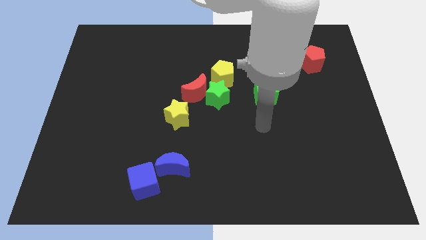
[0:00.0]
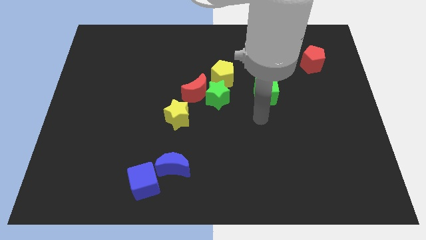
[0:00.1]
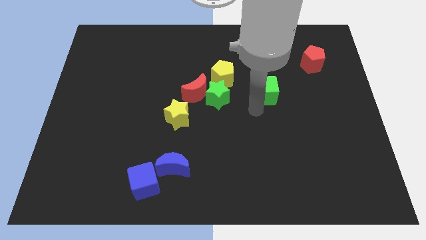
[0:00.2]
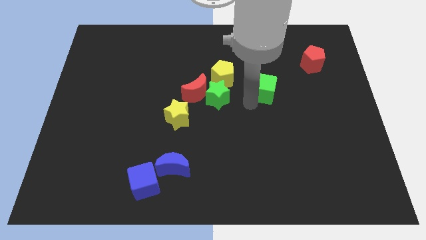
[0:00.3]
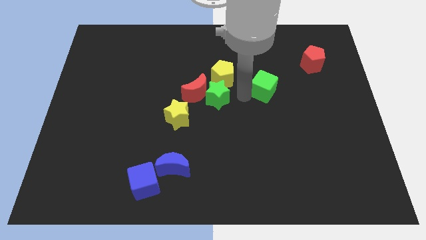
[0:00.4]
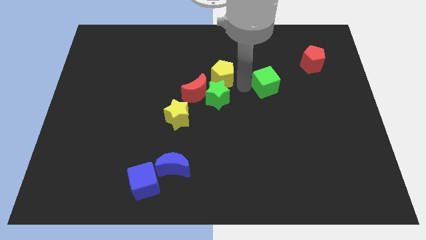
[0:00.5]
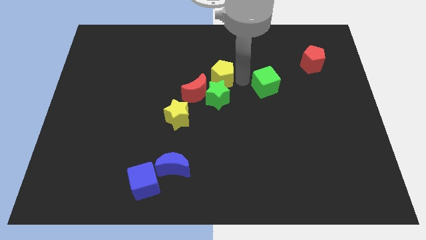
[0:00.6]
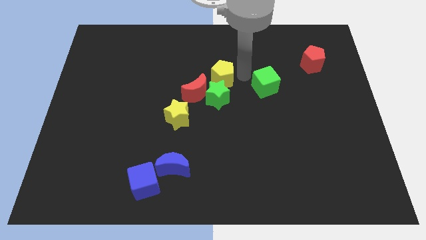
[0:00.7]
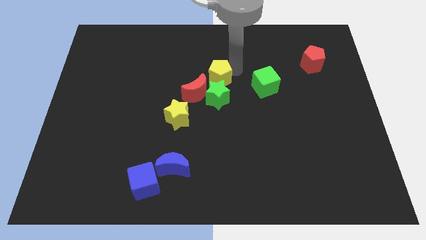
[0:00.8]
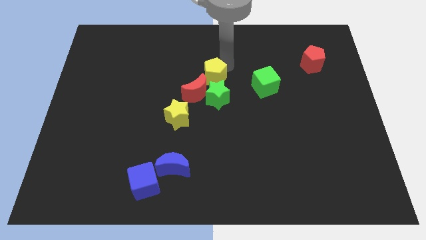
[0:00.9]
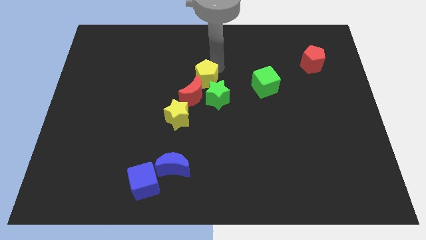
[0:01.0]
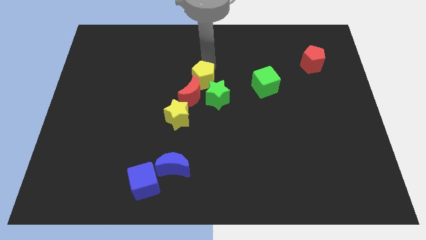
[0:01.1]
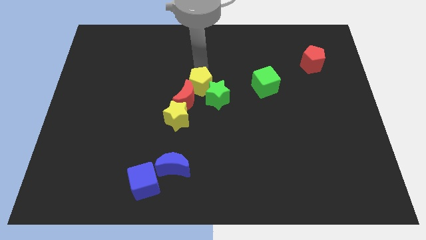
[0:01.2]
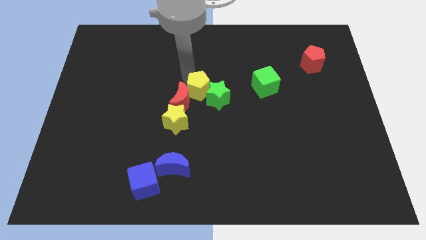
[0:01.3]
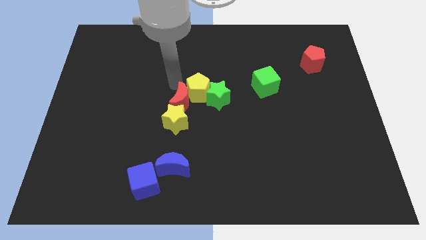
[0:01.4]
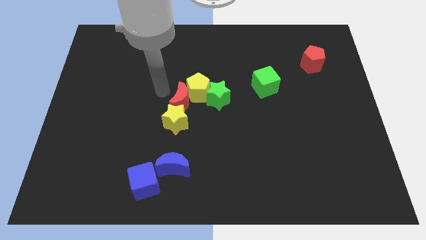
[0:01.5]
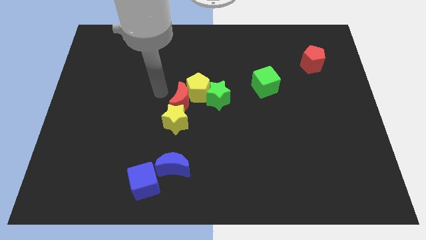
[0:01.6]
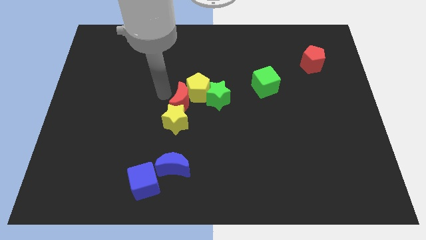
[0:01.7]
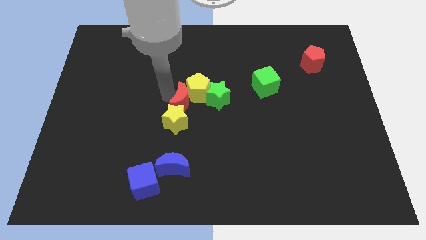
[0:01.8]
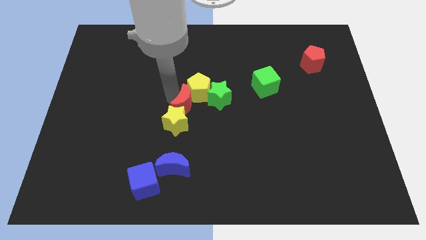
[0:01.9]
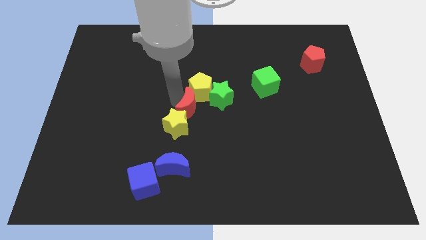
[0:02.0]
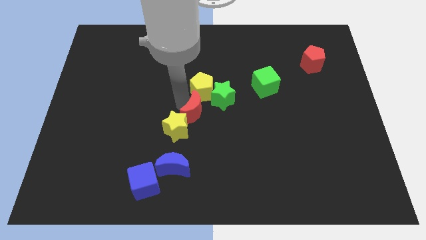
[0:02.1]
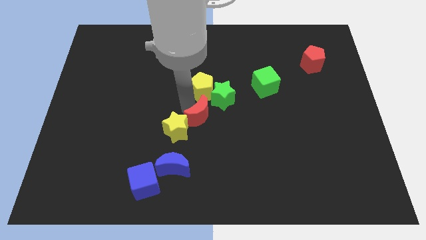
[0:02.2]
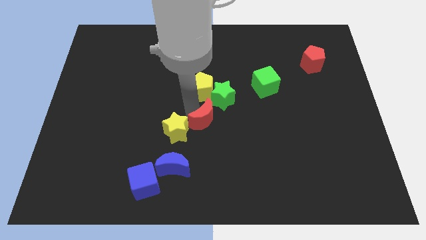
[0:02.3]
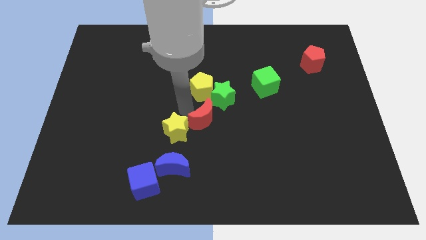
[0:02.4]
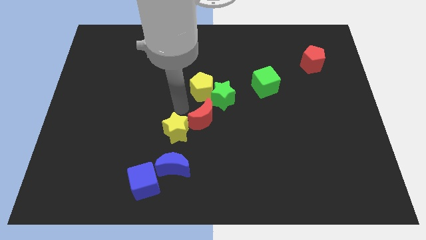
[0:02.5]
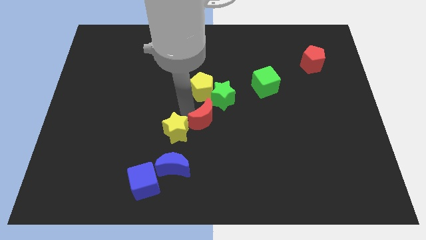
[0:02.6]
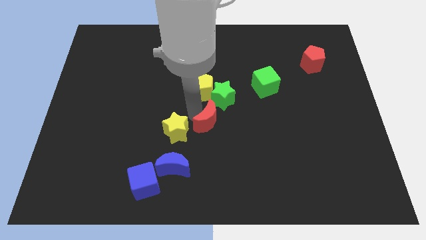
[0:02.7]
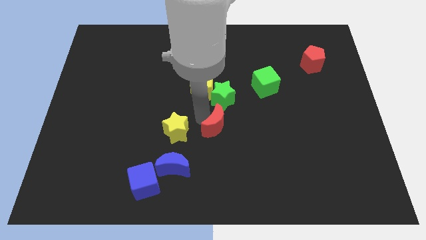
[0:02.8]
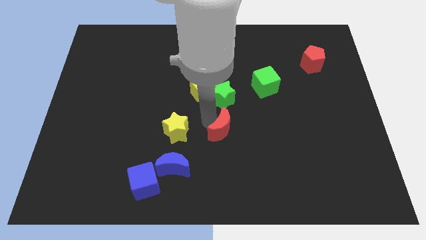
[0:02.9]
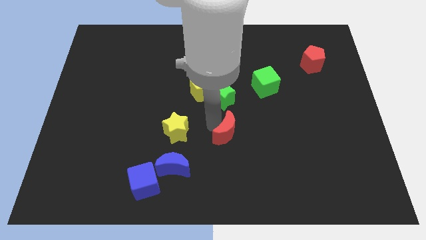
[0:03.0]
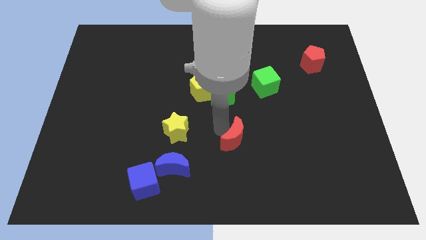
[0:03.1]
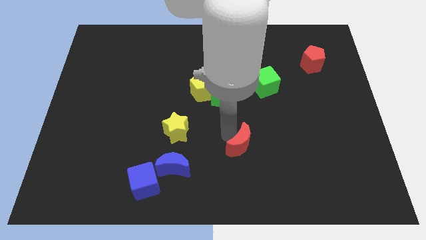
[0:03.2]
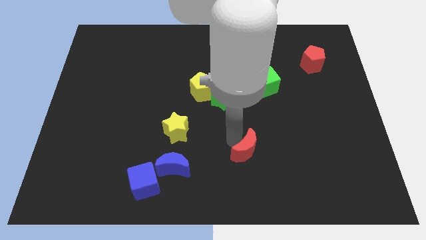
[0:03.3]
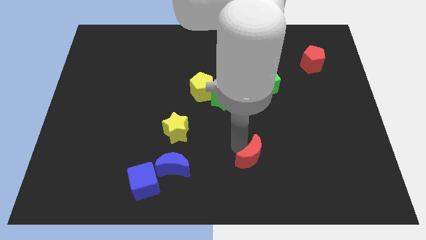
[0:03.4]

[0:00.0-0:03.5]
move the red moon down and right diagonally

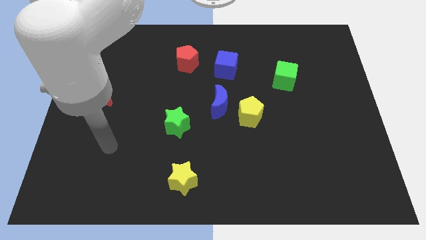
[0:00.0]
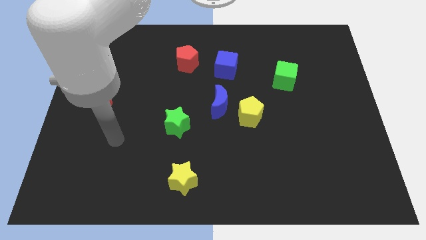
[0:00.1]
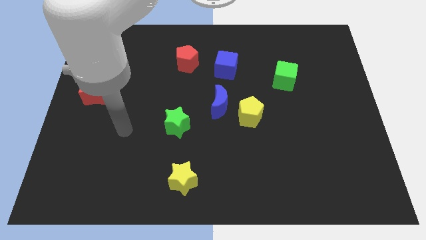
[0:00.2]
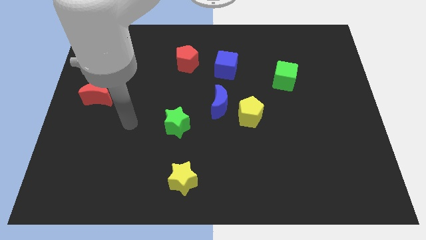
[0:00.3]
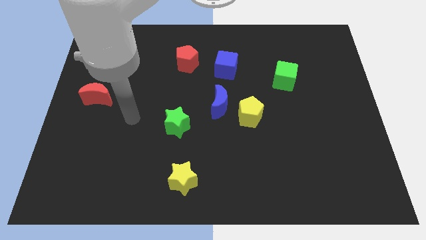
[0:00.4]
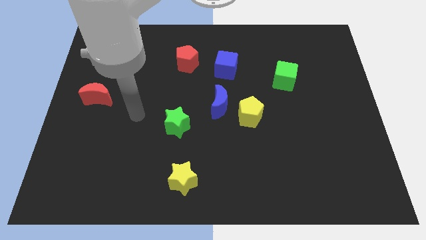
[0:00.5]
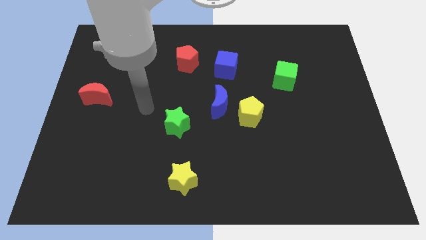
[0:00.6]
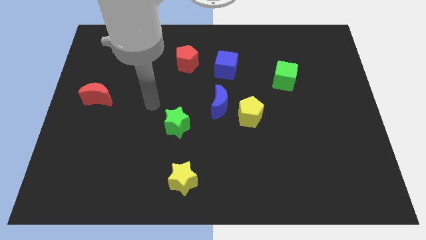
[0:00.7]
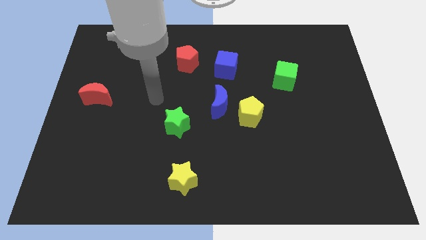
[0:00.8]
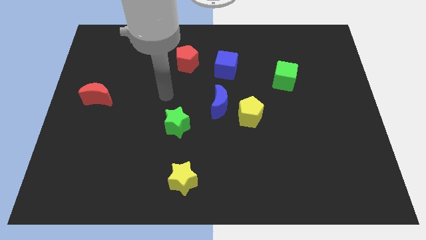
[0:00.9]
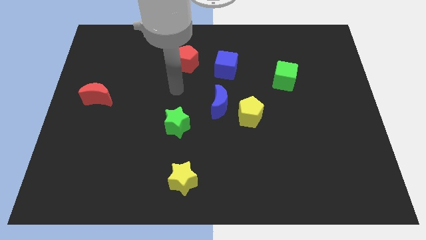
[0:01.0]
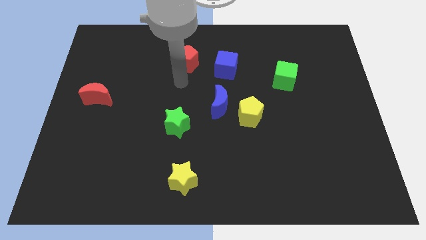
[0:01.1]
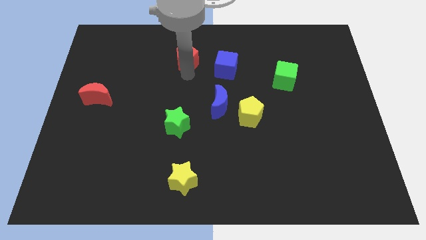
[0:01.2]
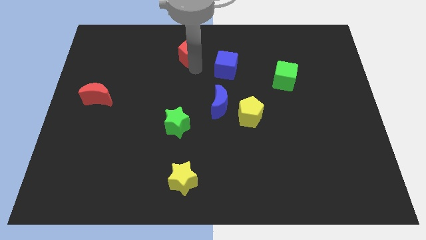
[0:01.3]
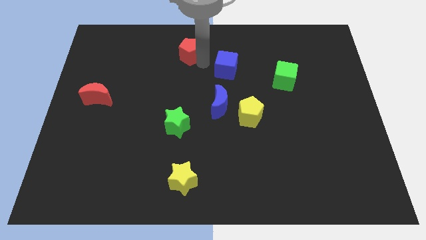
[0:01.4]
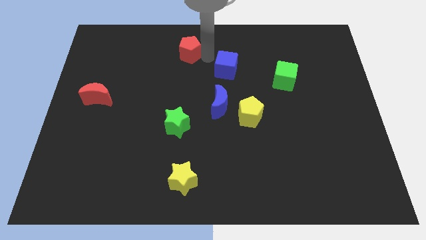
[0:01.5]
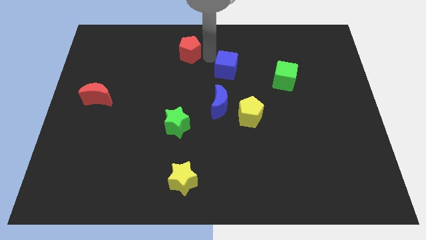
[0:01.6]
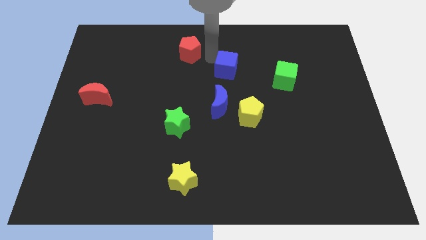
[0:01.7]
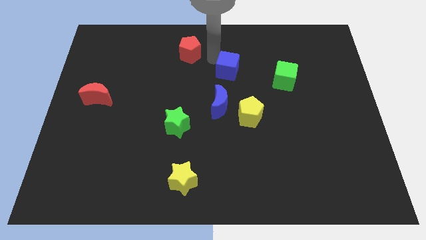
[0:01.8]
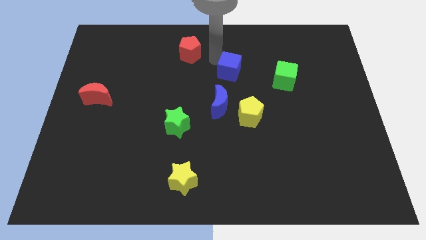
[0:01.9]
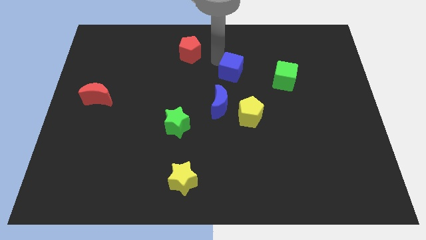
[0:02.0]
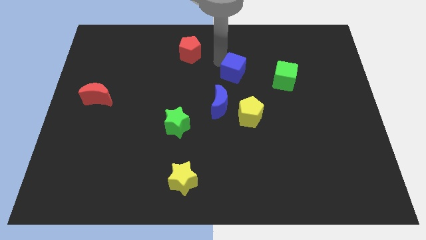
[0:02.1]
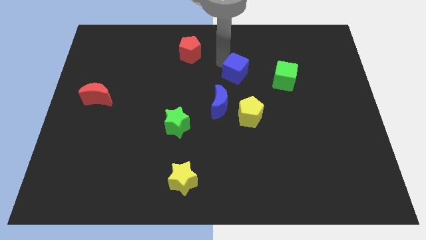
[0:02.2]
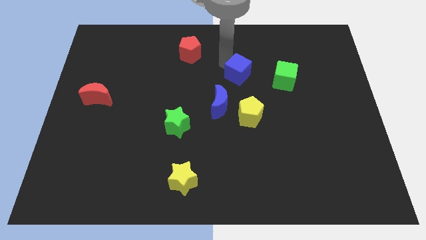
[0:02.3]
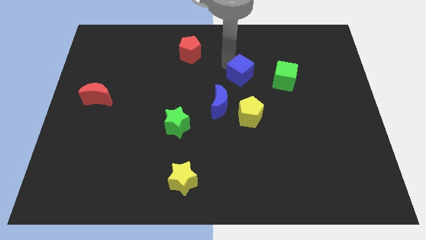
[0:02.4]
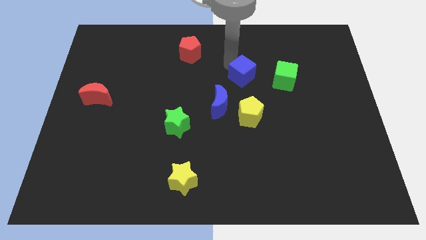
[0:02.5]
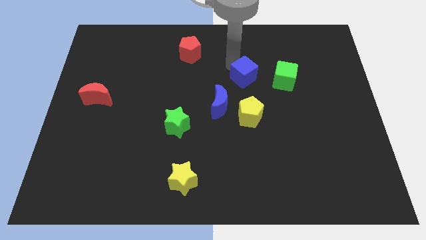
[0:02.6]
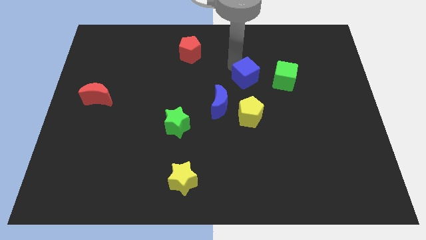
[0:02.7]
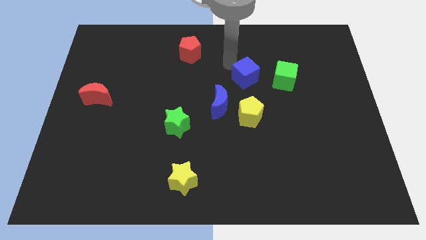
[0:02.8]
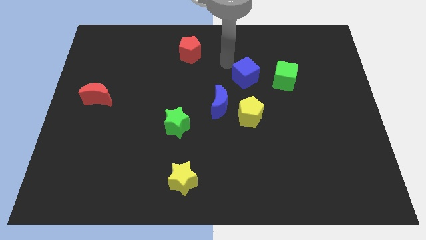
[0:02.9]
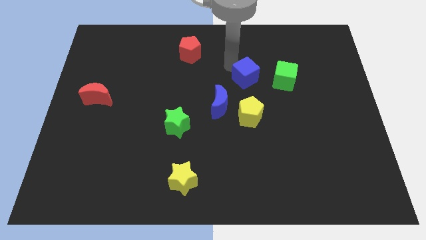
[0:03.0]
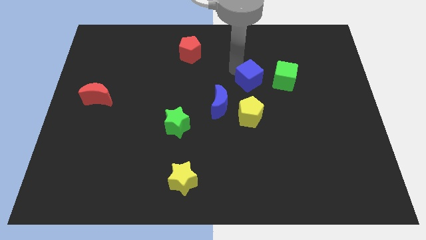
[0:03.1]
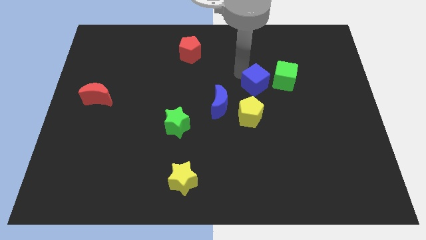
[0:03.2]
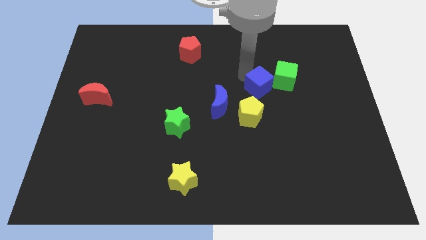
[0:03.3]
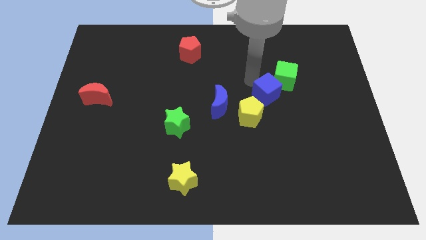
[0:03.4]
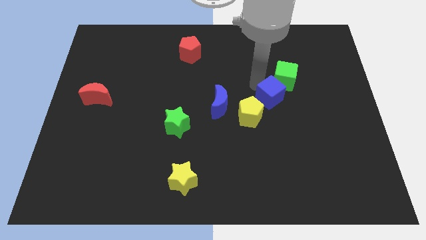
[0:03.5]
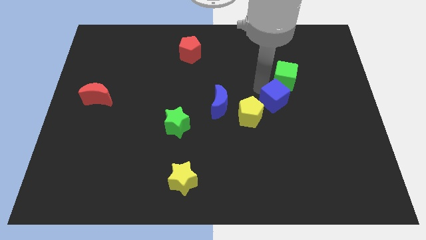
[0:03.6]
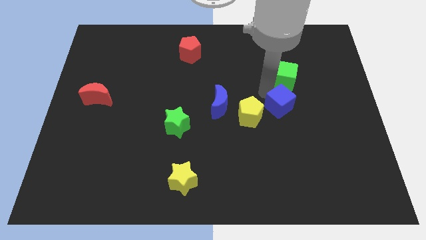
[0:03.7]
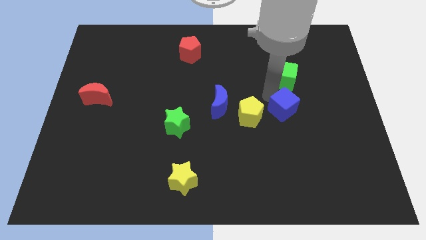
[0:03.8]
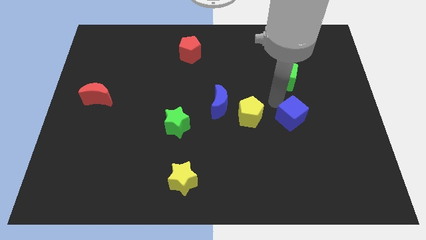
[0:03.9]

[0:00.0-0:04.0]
slide the blue cube down and to the right diagonally

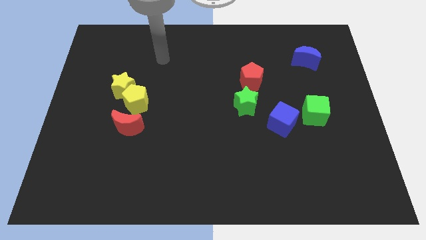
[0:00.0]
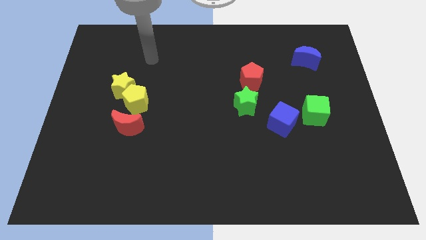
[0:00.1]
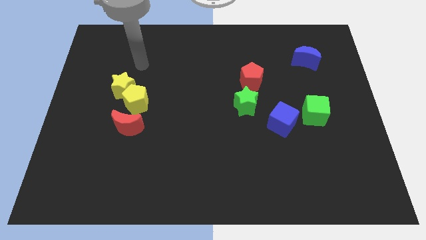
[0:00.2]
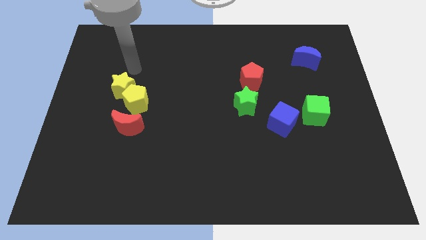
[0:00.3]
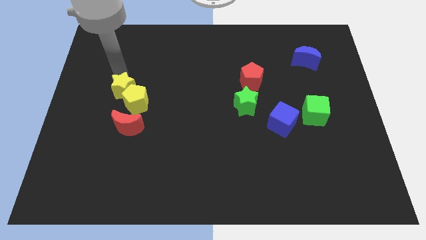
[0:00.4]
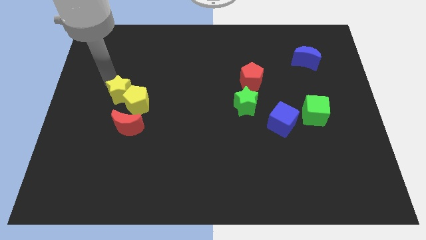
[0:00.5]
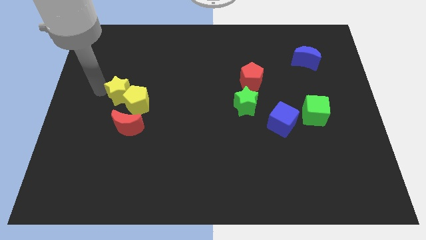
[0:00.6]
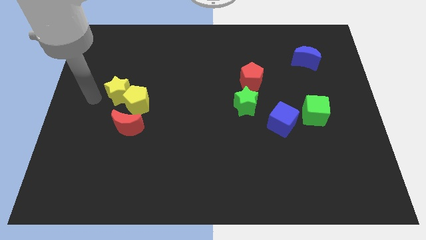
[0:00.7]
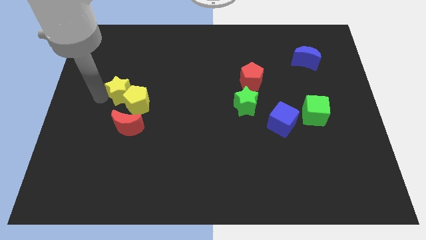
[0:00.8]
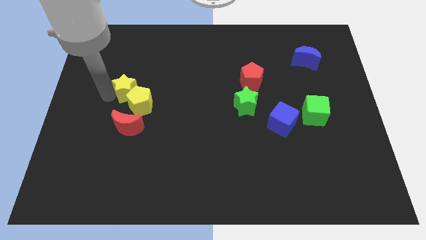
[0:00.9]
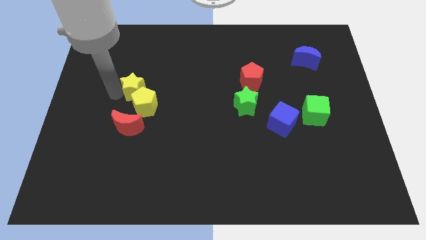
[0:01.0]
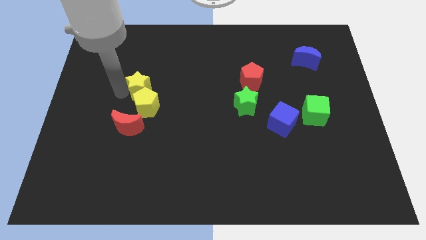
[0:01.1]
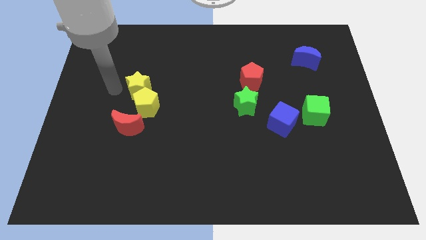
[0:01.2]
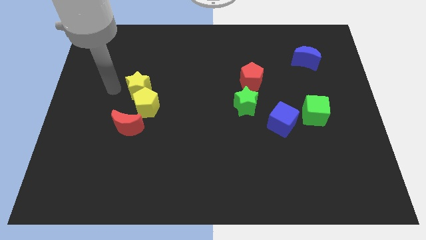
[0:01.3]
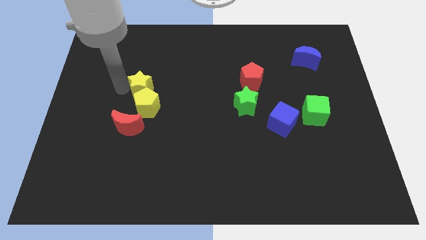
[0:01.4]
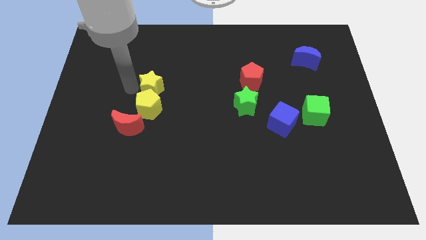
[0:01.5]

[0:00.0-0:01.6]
move the yellow star slightly right
